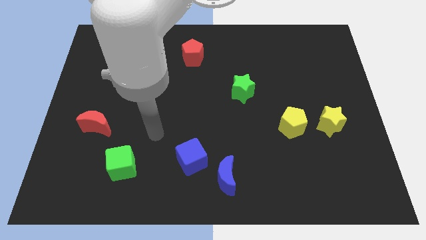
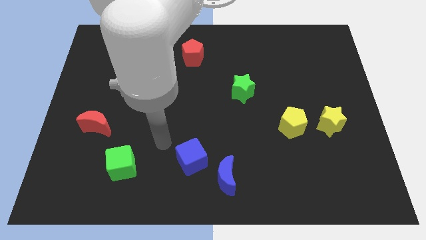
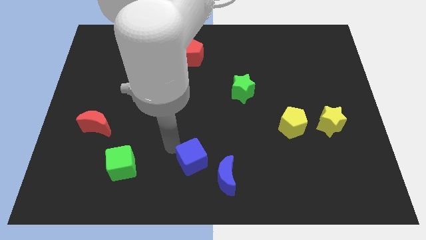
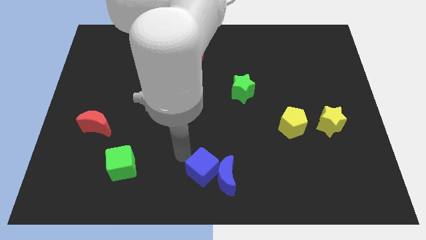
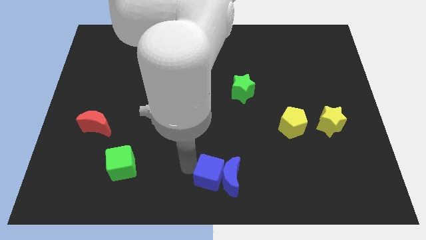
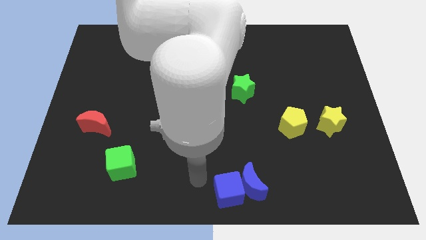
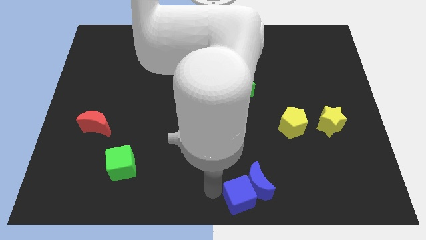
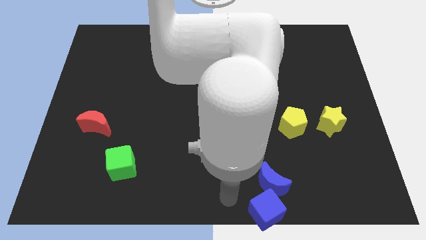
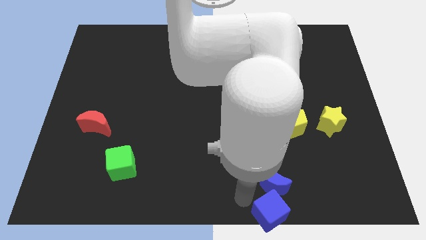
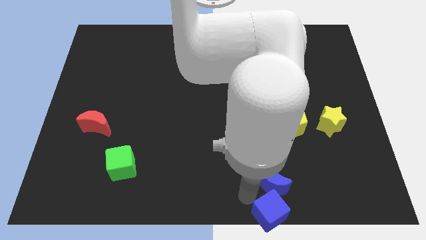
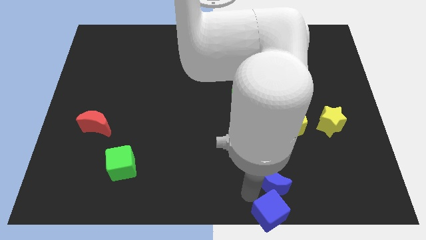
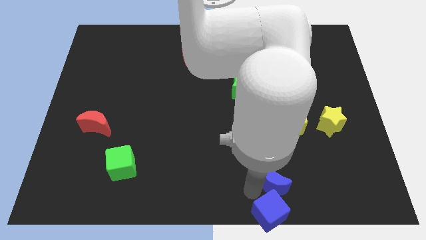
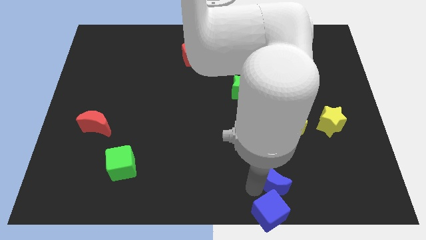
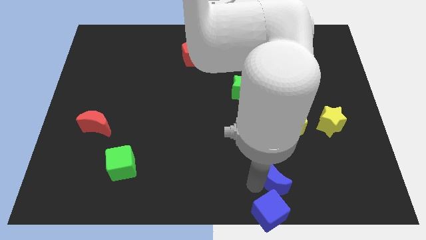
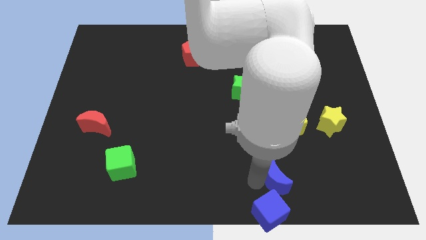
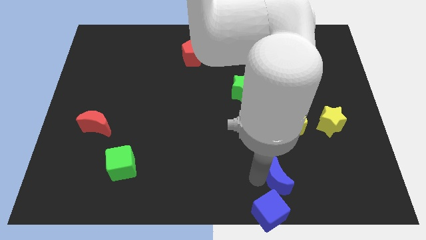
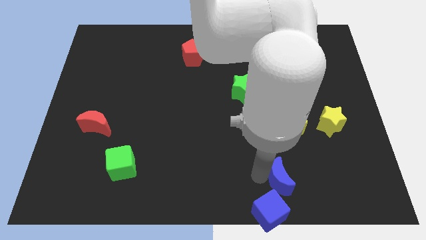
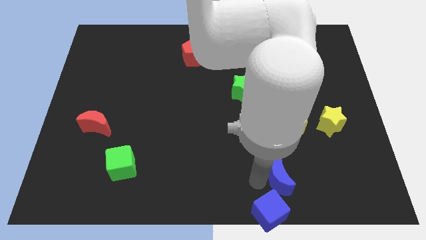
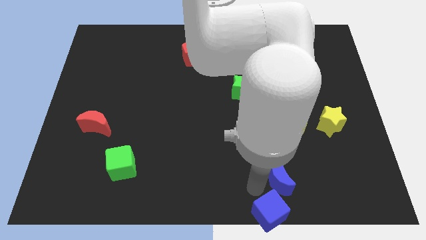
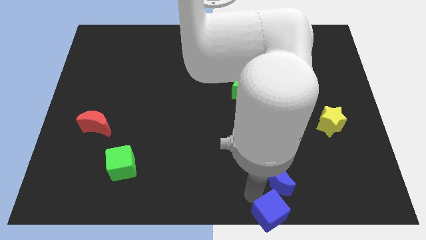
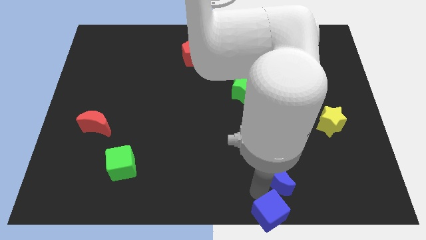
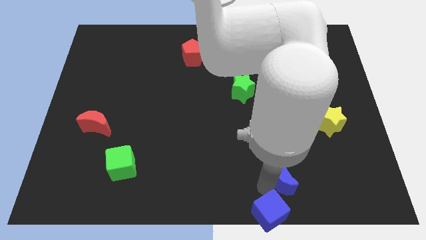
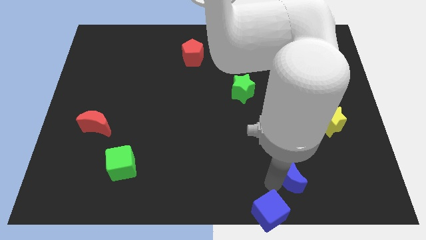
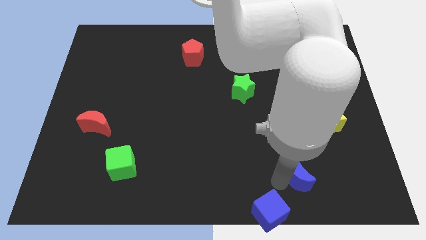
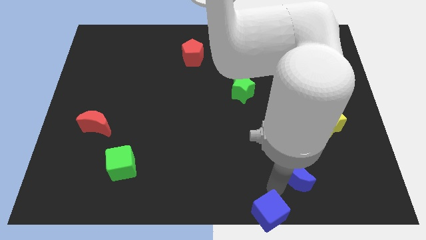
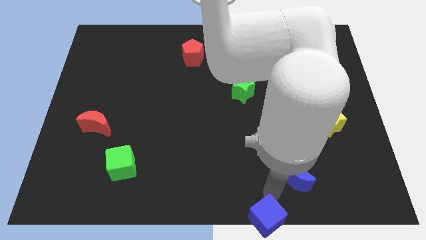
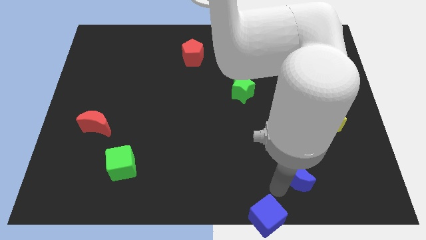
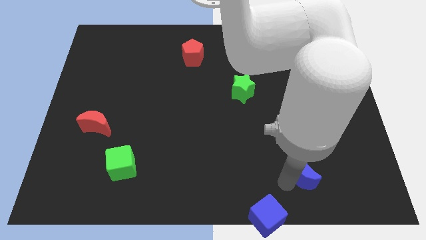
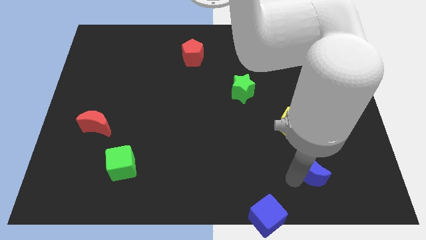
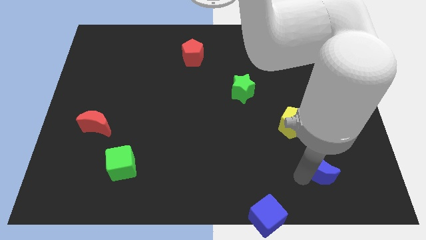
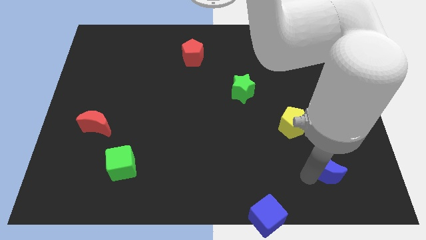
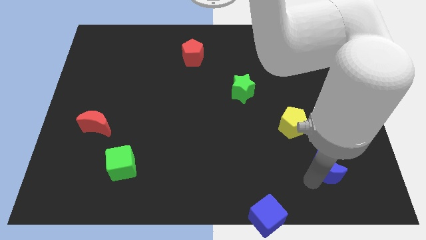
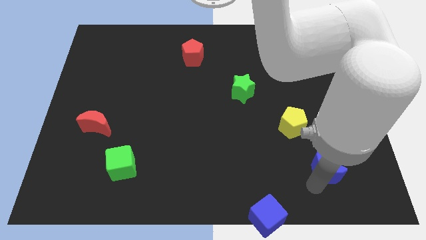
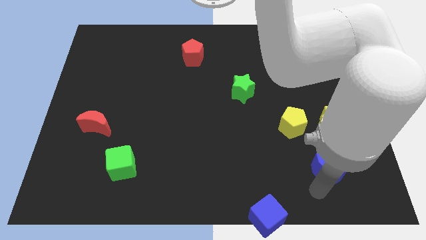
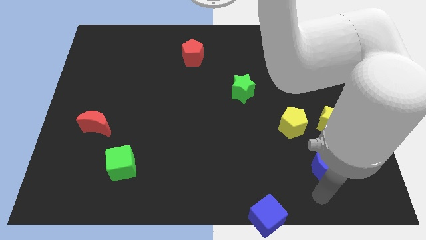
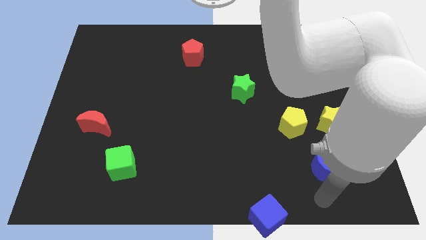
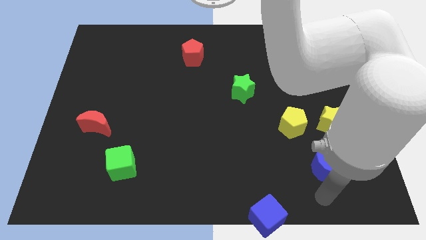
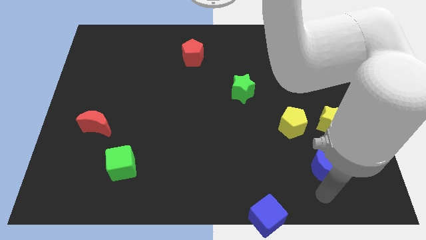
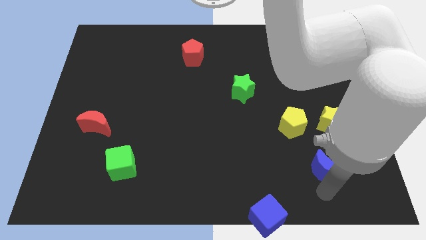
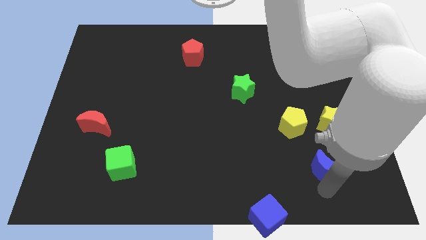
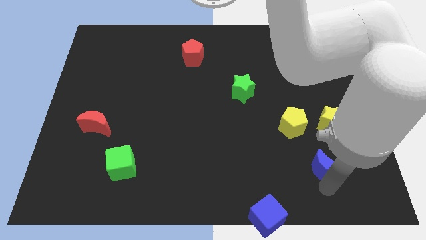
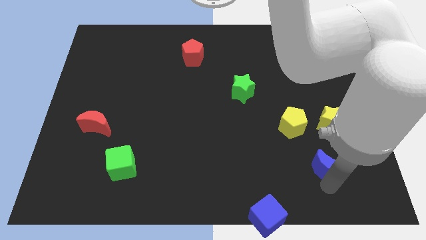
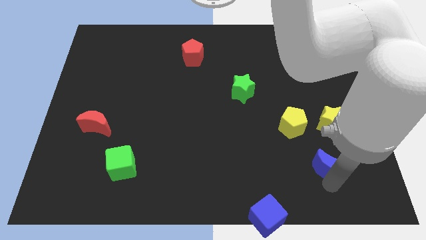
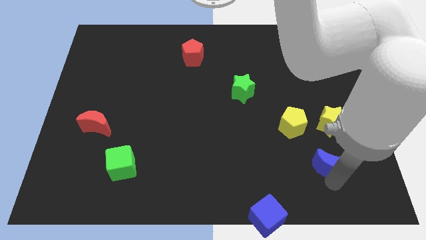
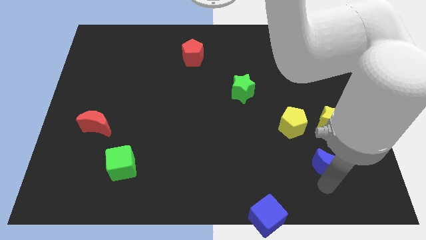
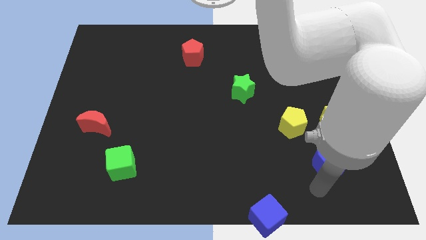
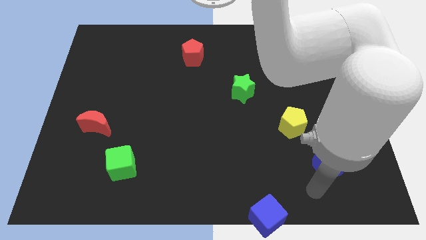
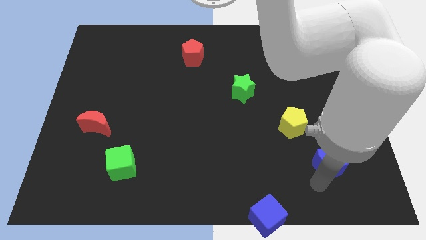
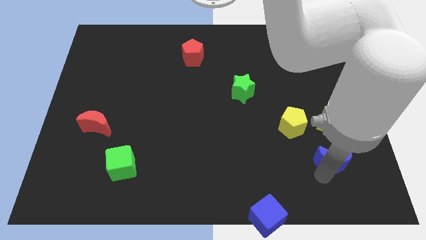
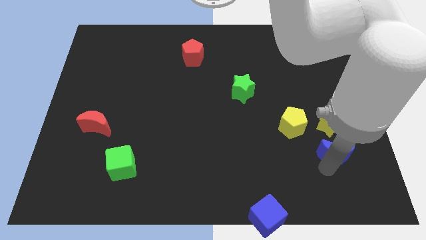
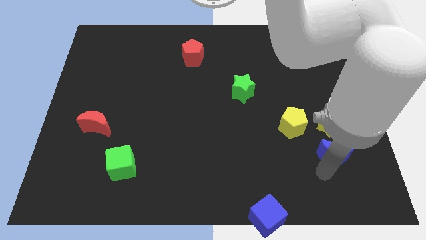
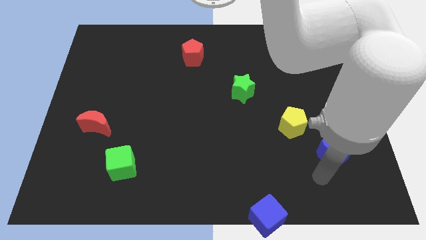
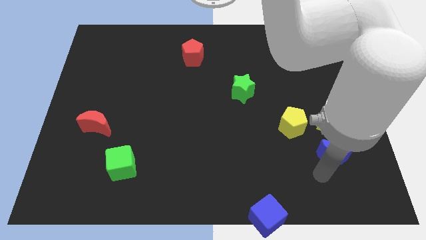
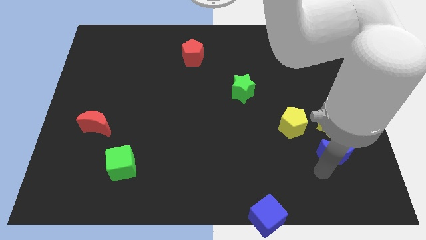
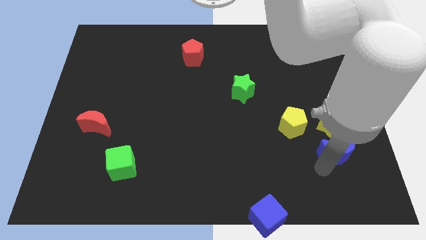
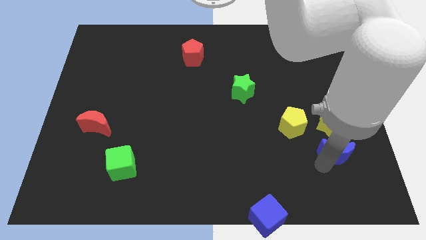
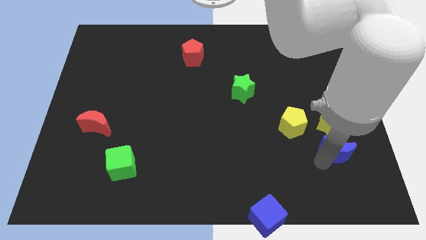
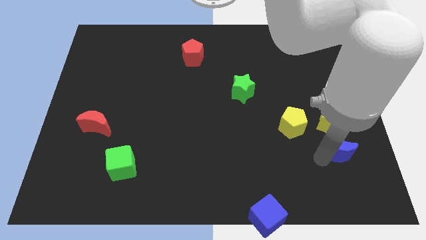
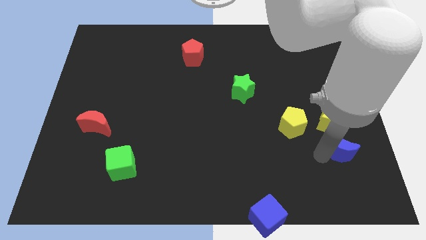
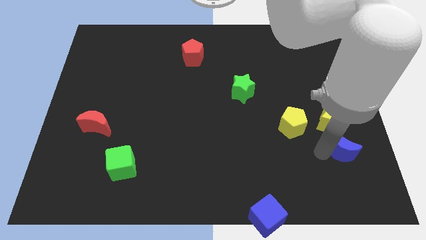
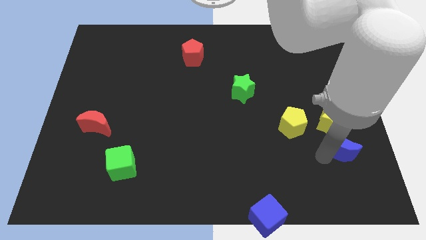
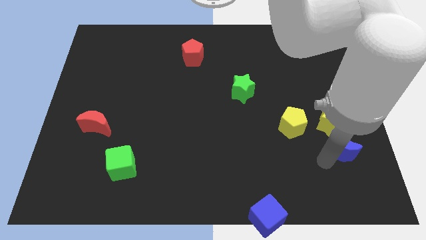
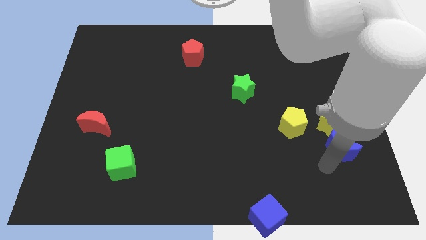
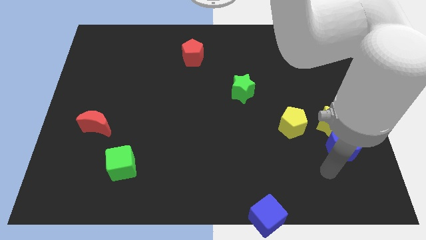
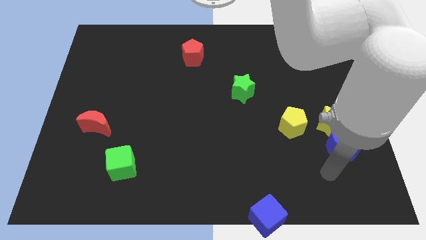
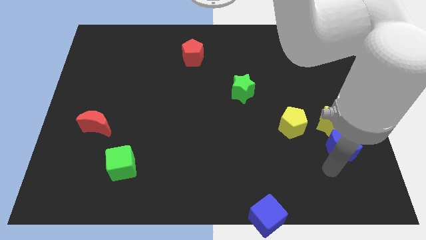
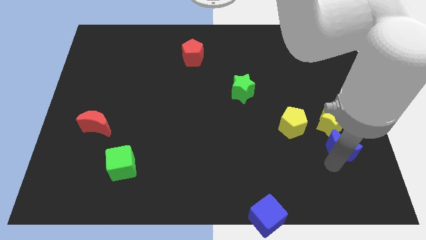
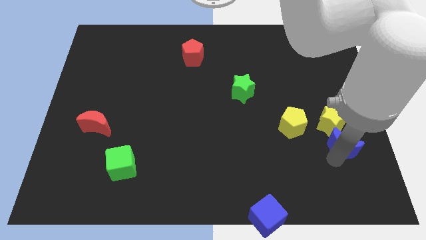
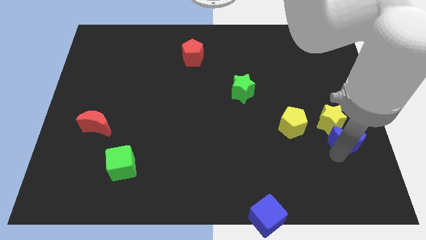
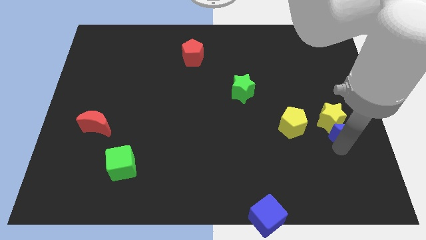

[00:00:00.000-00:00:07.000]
put the blue moon to the center right
